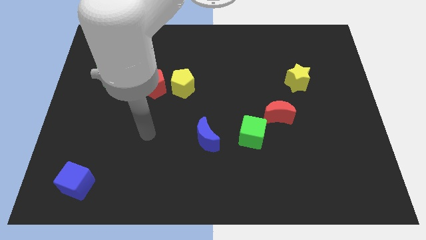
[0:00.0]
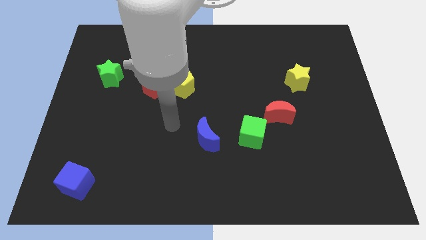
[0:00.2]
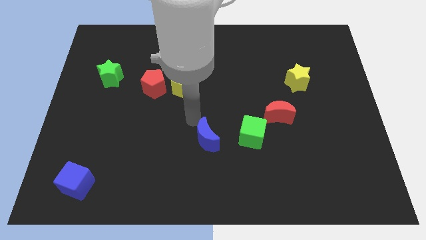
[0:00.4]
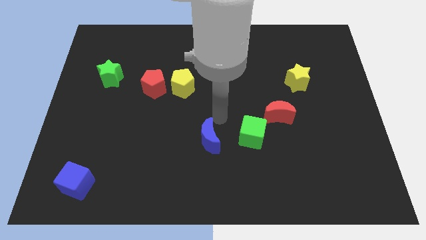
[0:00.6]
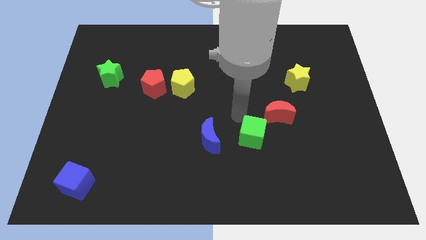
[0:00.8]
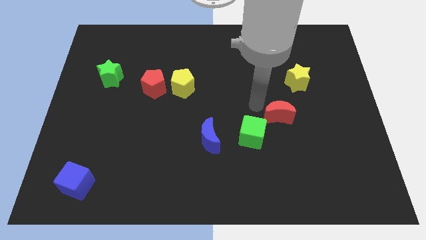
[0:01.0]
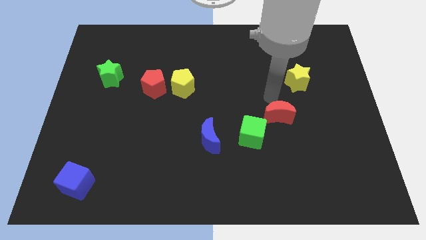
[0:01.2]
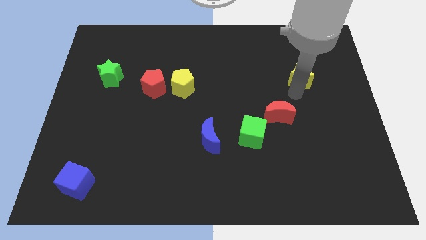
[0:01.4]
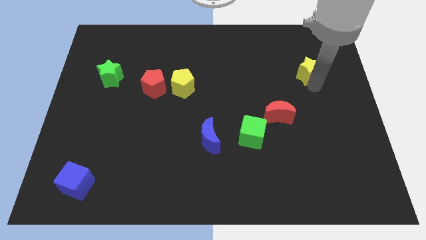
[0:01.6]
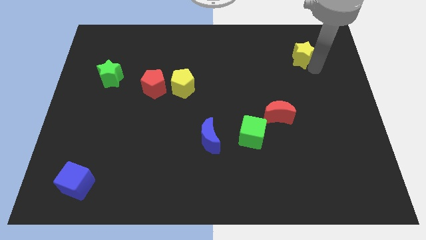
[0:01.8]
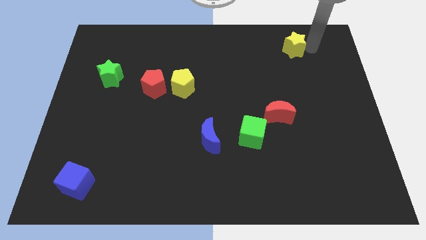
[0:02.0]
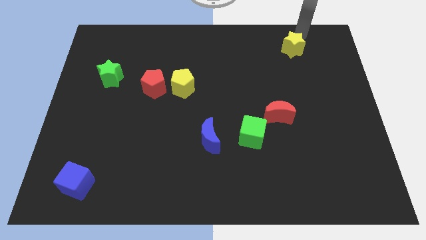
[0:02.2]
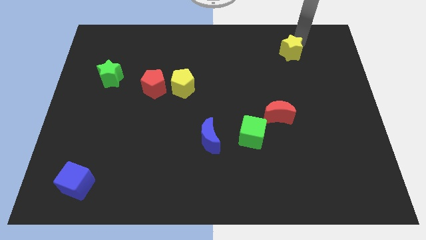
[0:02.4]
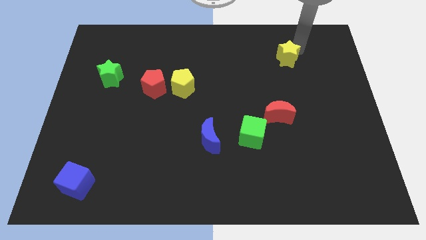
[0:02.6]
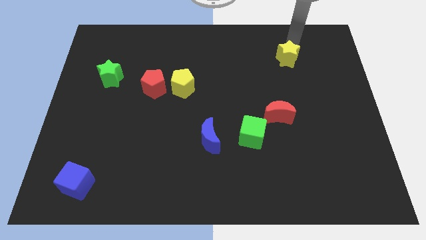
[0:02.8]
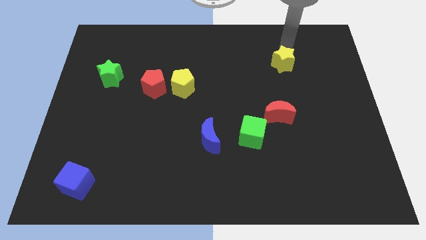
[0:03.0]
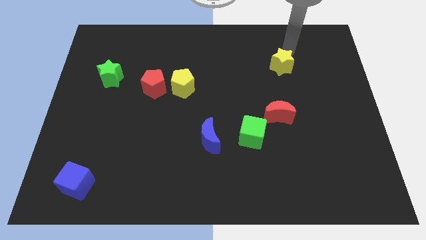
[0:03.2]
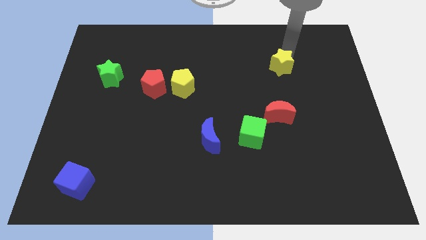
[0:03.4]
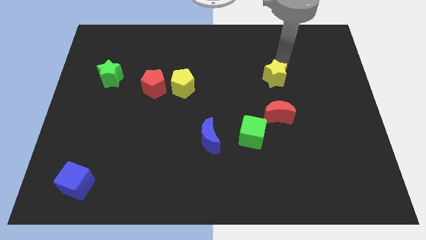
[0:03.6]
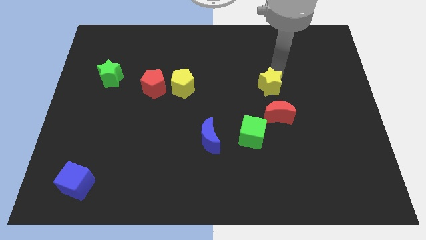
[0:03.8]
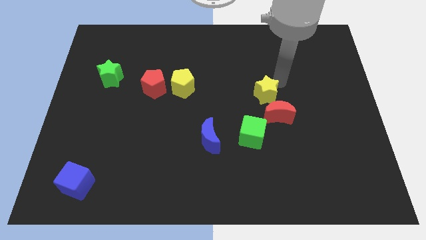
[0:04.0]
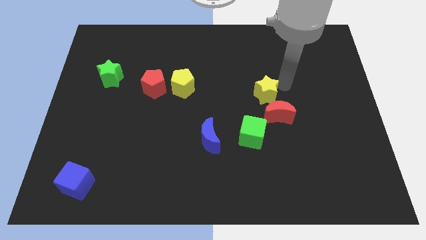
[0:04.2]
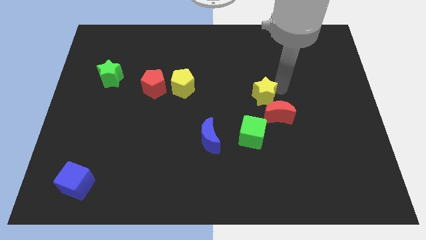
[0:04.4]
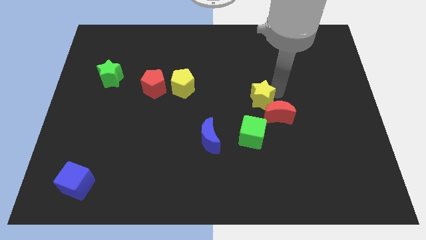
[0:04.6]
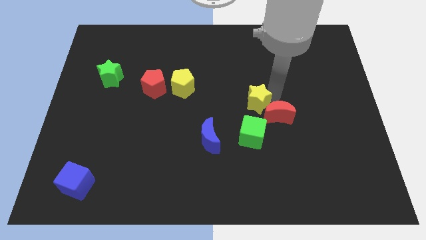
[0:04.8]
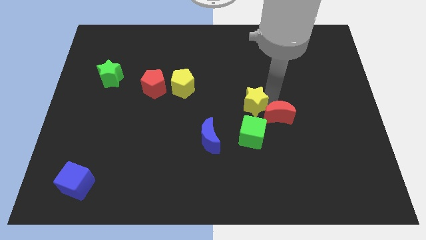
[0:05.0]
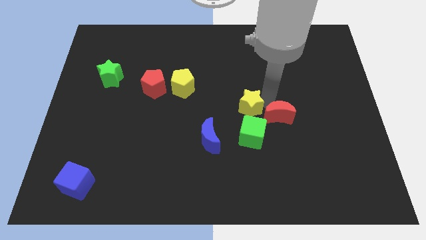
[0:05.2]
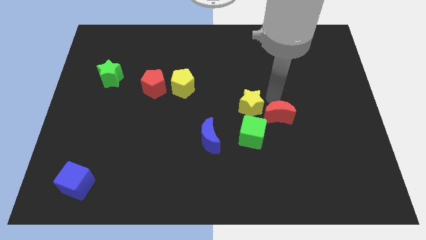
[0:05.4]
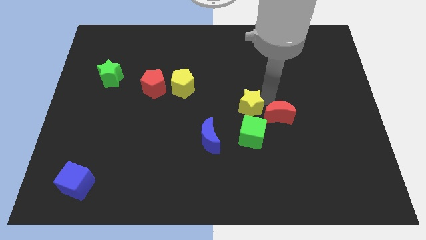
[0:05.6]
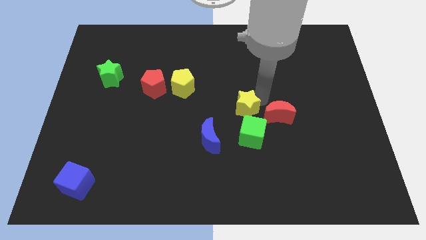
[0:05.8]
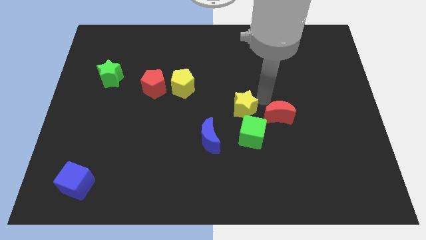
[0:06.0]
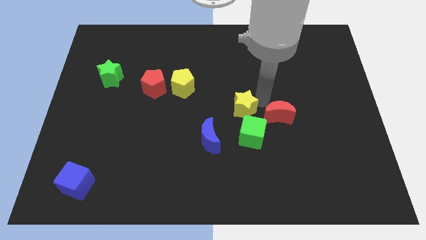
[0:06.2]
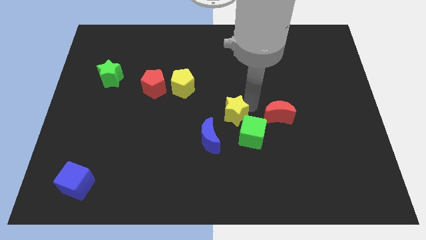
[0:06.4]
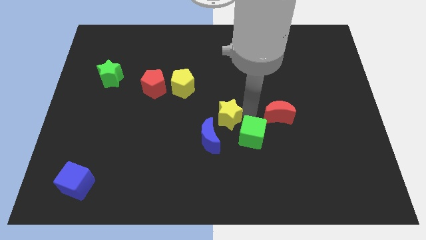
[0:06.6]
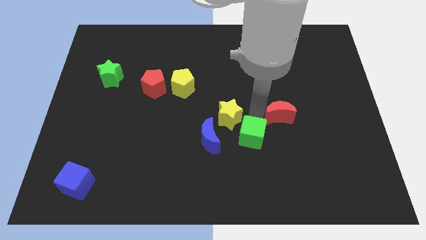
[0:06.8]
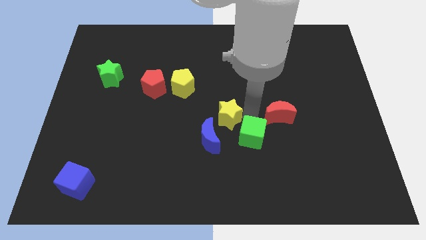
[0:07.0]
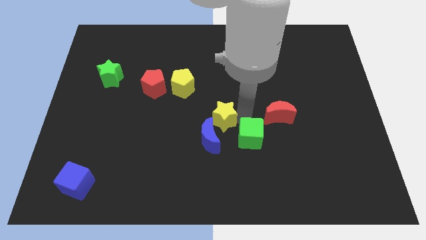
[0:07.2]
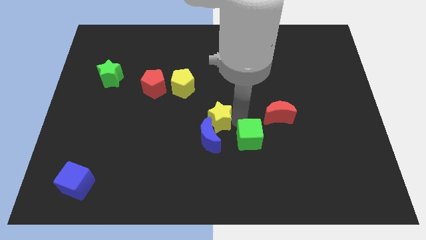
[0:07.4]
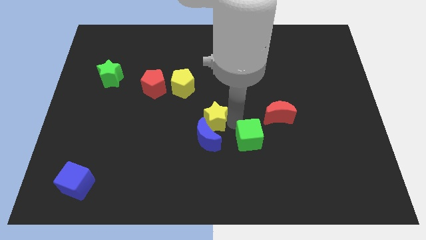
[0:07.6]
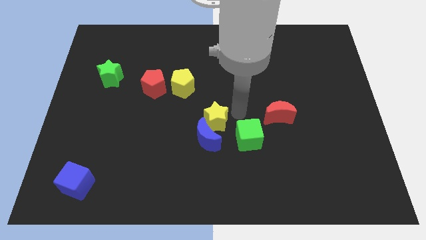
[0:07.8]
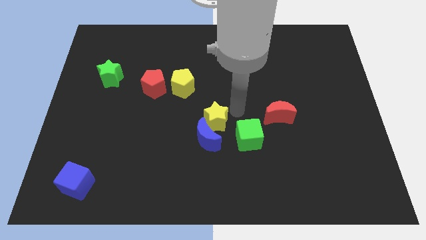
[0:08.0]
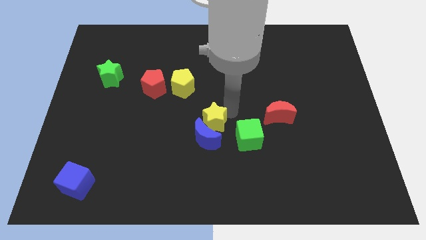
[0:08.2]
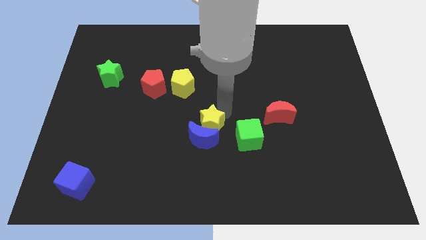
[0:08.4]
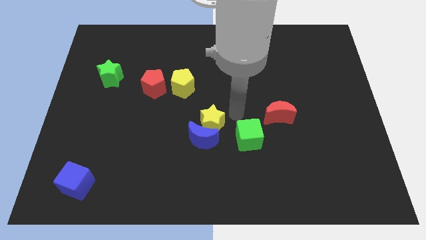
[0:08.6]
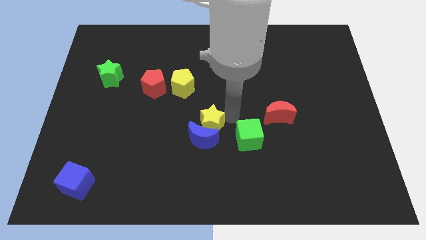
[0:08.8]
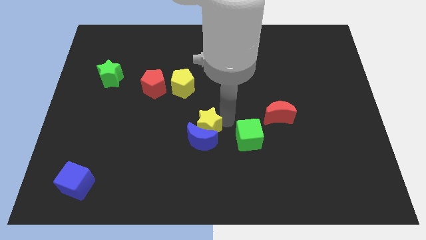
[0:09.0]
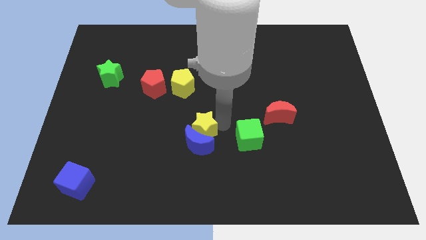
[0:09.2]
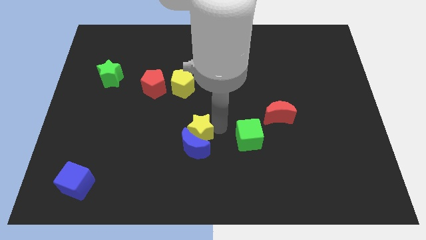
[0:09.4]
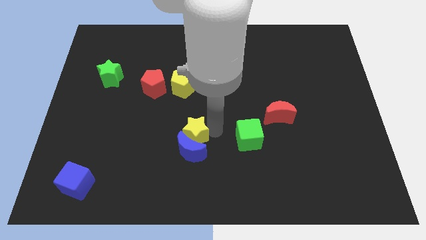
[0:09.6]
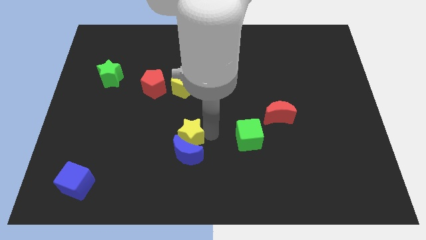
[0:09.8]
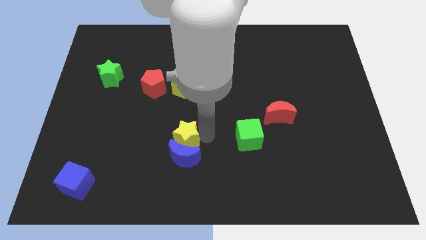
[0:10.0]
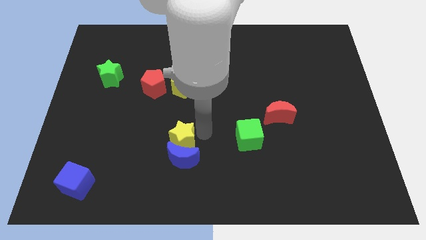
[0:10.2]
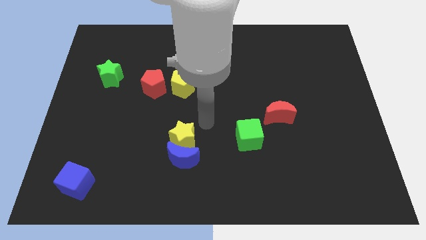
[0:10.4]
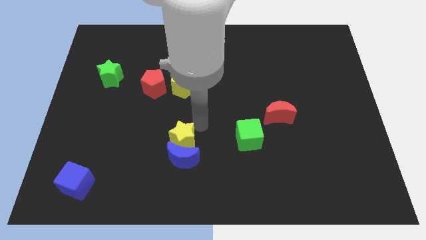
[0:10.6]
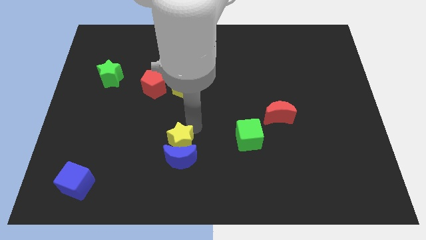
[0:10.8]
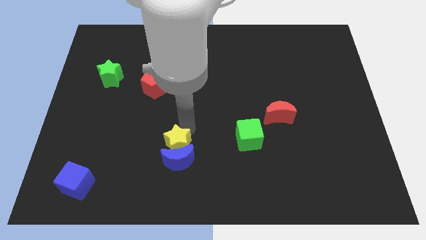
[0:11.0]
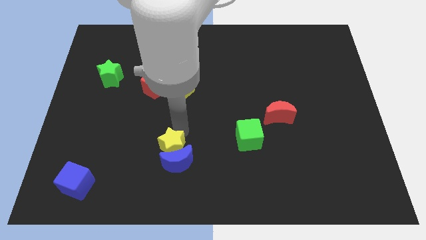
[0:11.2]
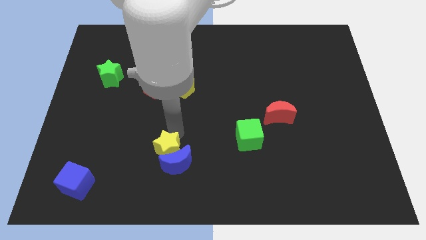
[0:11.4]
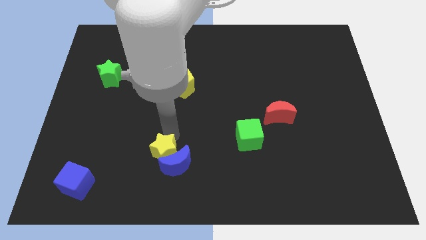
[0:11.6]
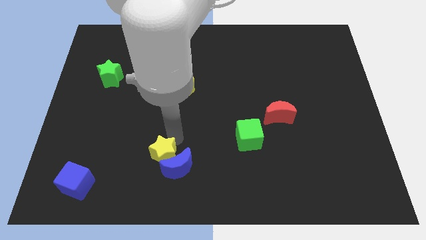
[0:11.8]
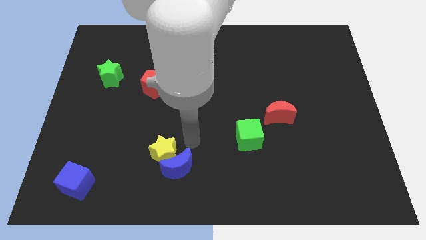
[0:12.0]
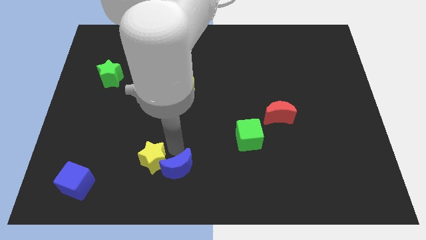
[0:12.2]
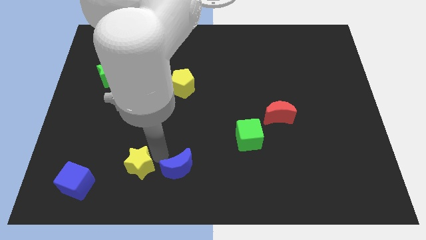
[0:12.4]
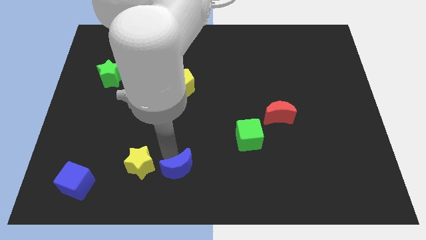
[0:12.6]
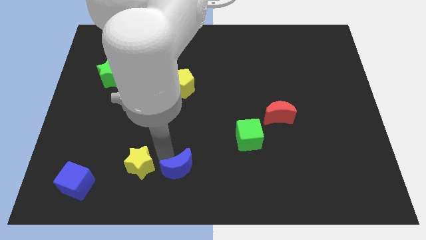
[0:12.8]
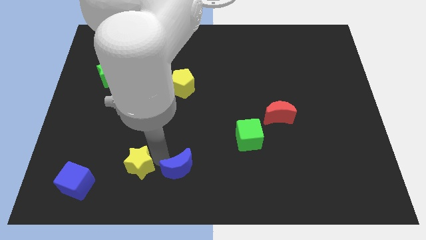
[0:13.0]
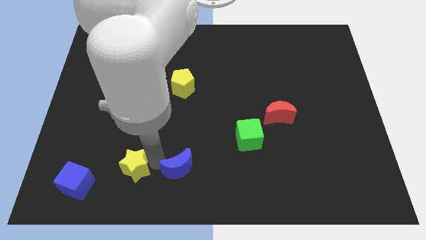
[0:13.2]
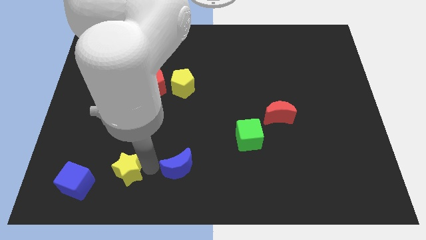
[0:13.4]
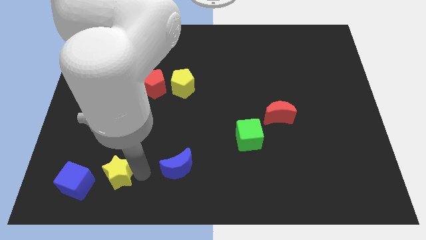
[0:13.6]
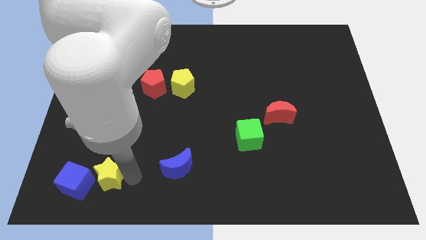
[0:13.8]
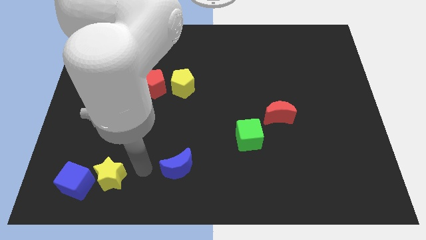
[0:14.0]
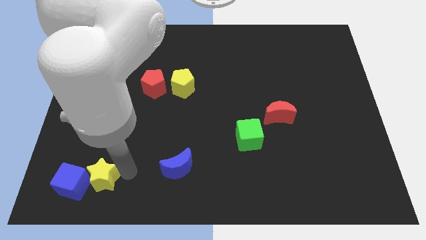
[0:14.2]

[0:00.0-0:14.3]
push the yellow star close to the blue cube
